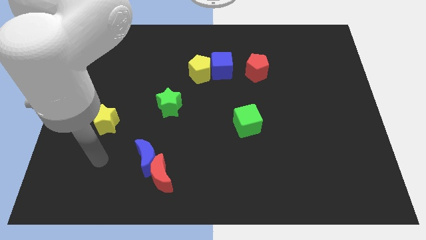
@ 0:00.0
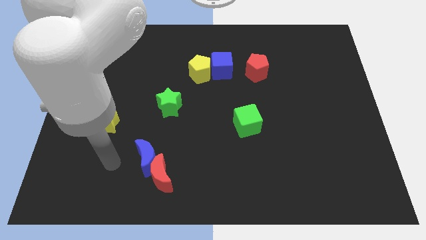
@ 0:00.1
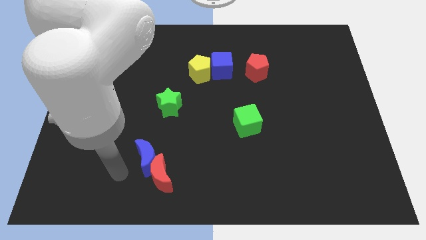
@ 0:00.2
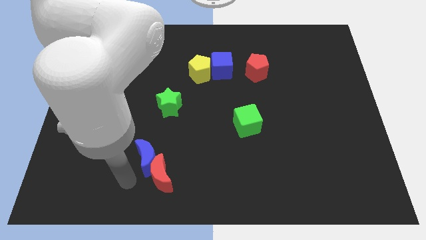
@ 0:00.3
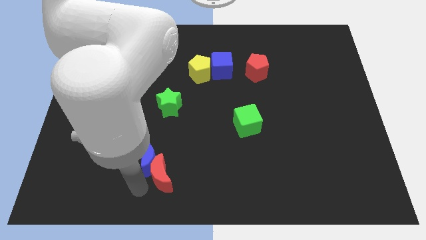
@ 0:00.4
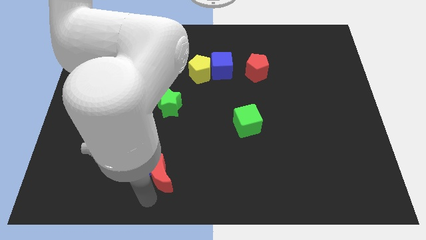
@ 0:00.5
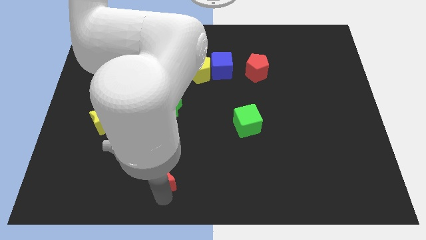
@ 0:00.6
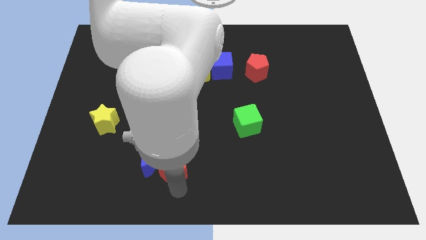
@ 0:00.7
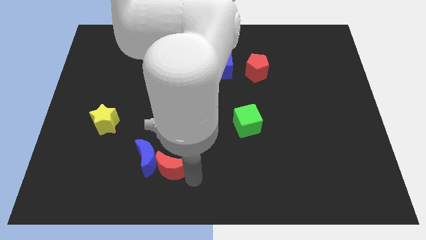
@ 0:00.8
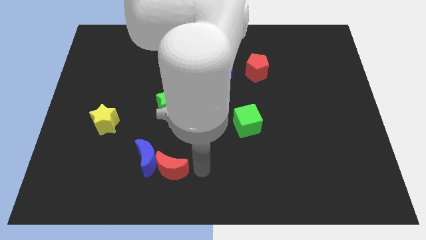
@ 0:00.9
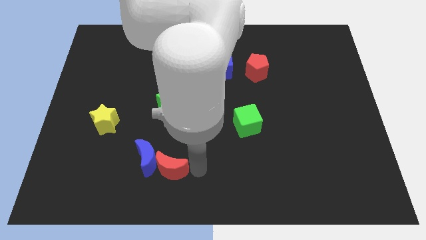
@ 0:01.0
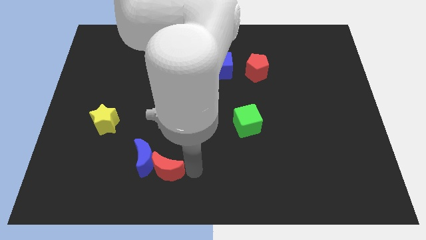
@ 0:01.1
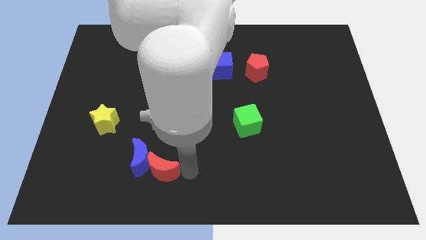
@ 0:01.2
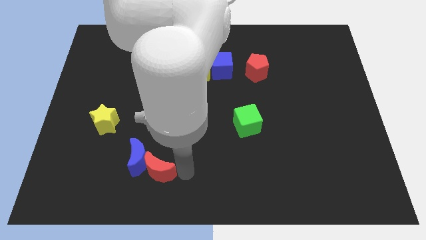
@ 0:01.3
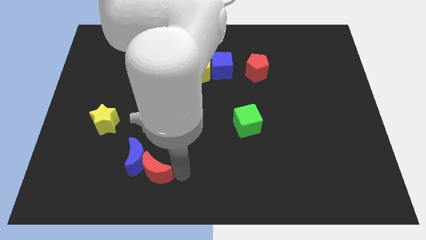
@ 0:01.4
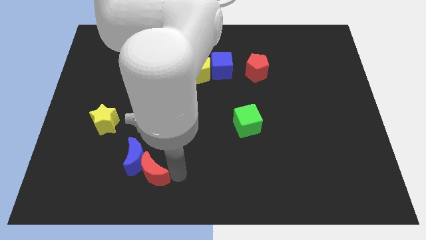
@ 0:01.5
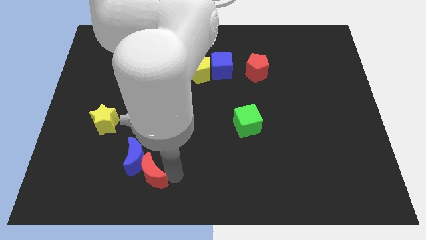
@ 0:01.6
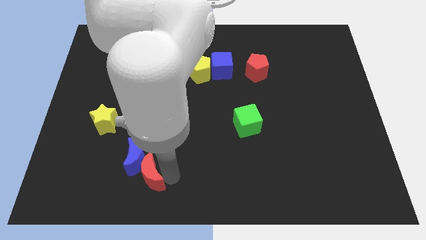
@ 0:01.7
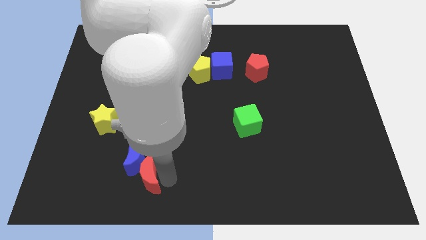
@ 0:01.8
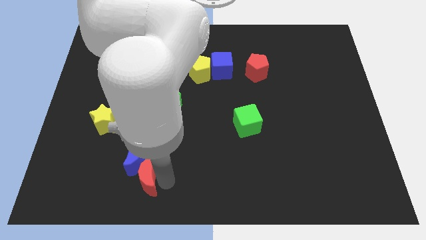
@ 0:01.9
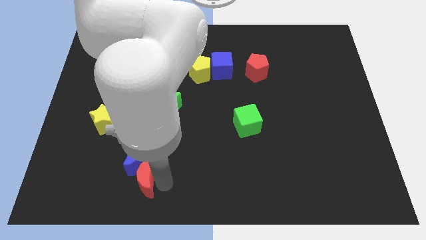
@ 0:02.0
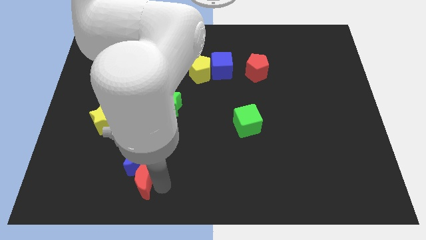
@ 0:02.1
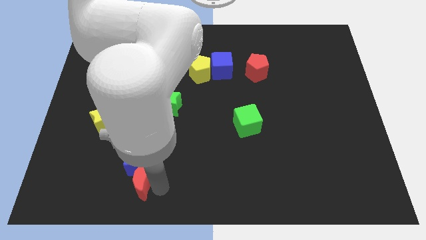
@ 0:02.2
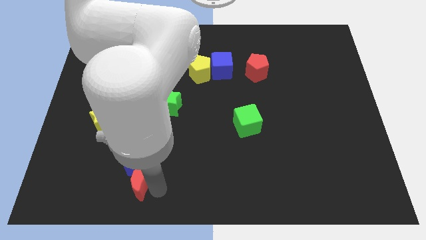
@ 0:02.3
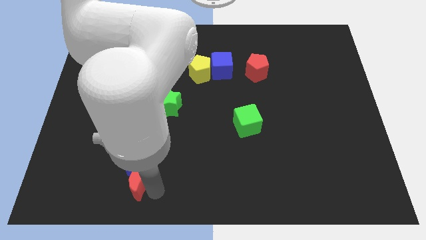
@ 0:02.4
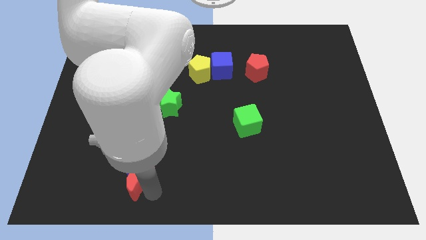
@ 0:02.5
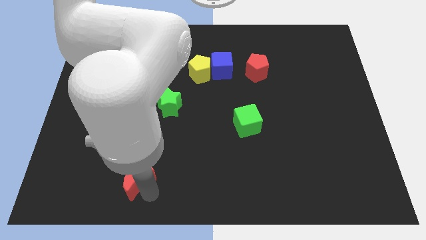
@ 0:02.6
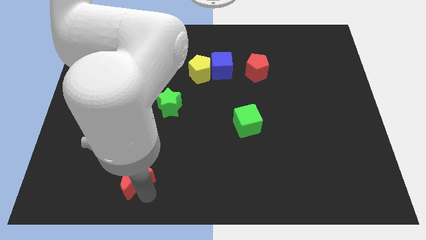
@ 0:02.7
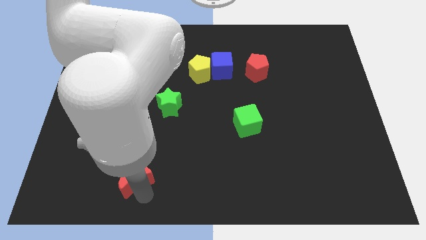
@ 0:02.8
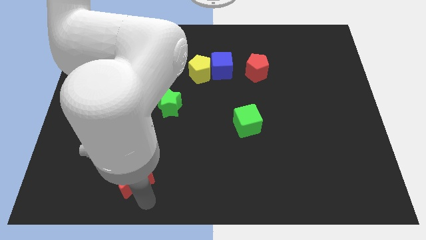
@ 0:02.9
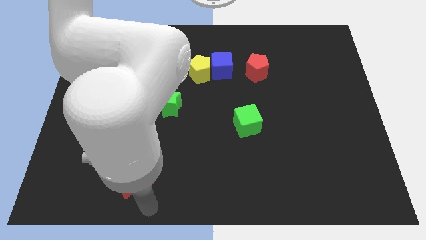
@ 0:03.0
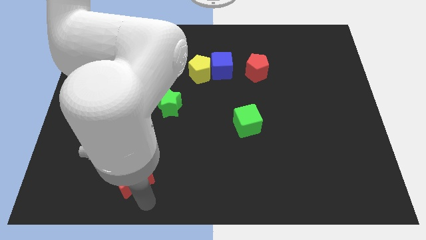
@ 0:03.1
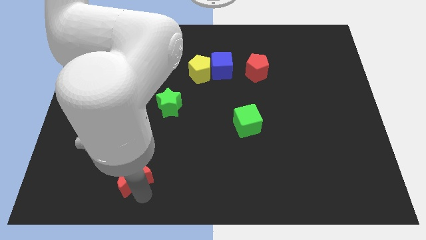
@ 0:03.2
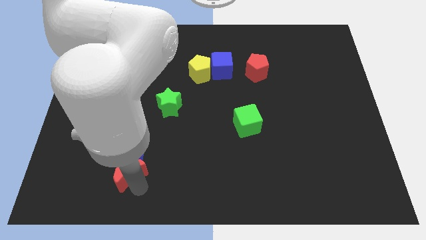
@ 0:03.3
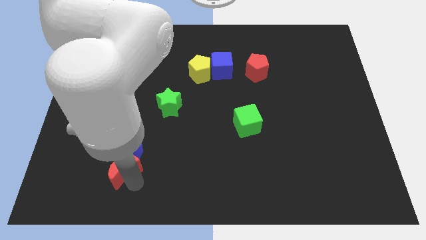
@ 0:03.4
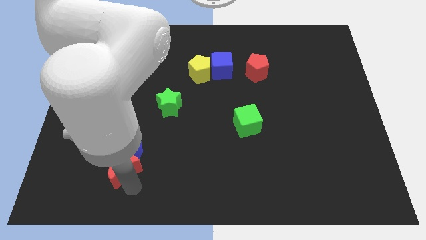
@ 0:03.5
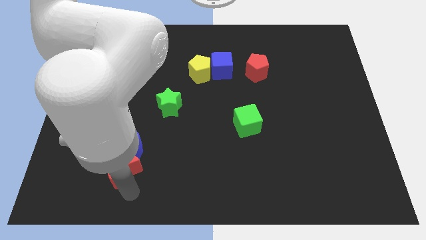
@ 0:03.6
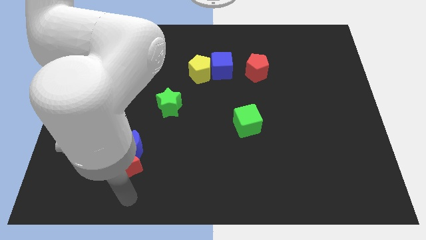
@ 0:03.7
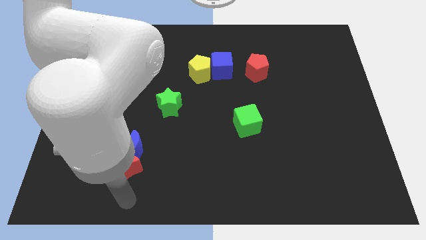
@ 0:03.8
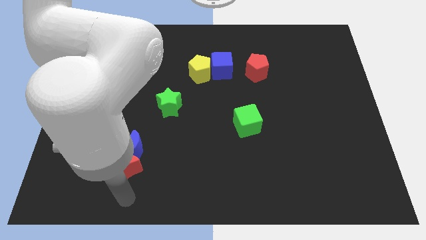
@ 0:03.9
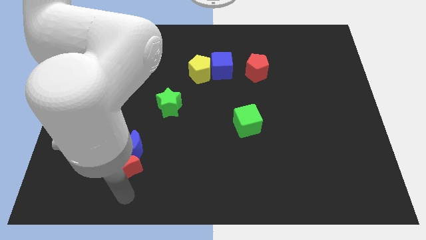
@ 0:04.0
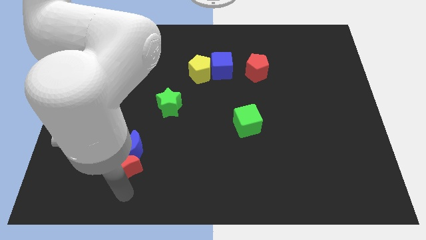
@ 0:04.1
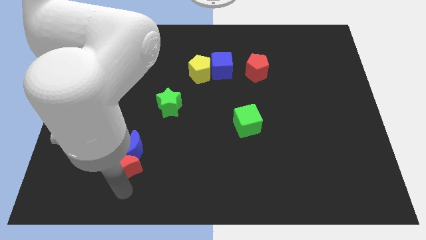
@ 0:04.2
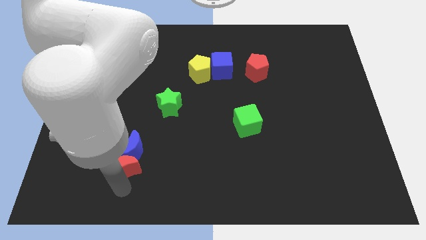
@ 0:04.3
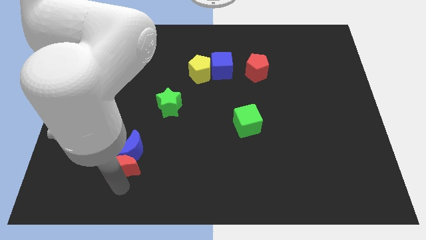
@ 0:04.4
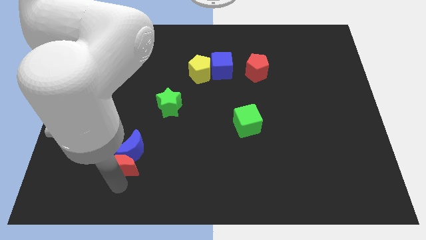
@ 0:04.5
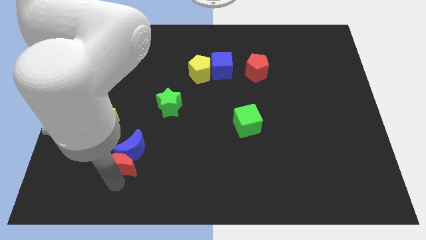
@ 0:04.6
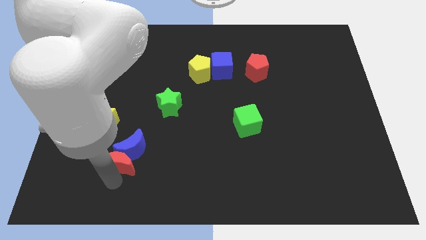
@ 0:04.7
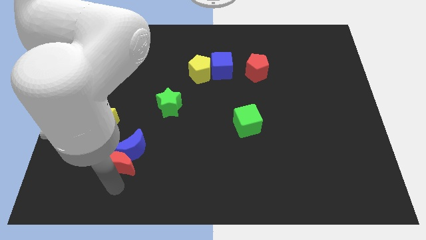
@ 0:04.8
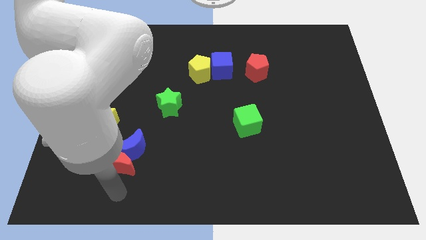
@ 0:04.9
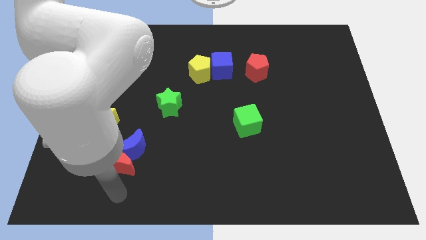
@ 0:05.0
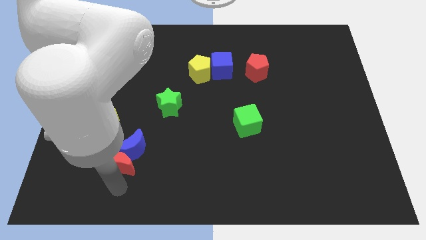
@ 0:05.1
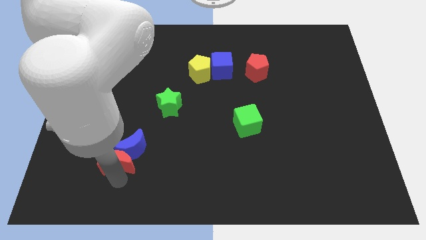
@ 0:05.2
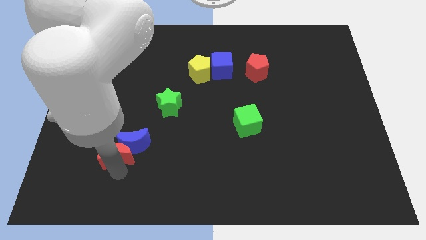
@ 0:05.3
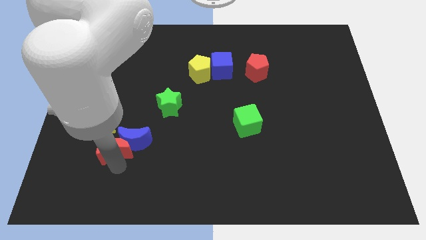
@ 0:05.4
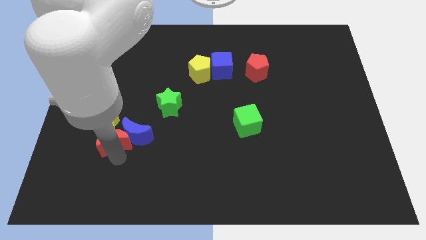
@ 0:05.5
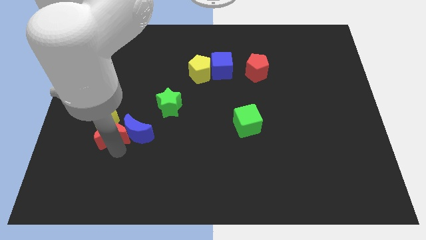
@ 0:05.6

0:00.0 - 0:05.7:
put the red moon next to the yellow star
